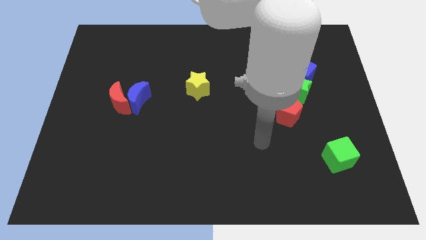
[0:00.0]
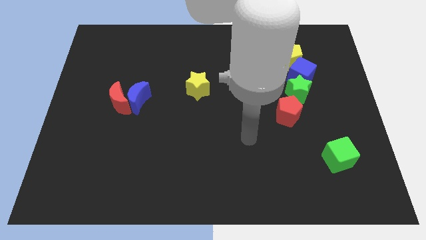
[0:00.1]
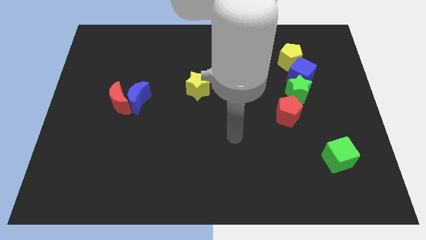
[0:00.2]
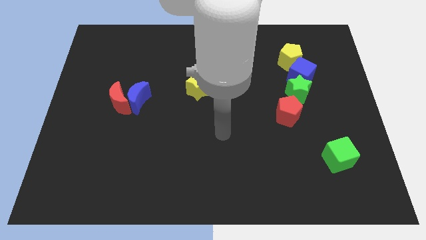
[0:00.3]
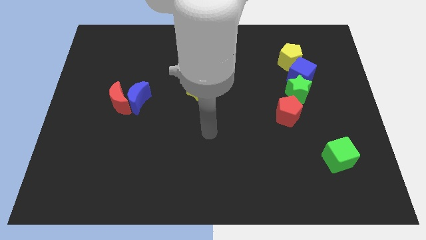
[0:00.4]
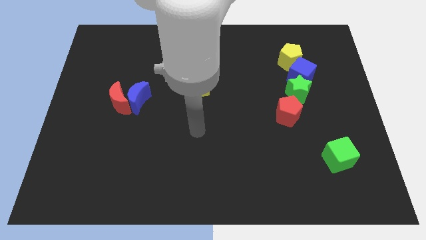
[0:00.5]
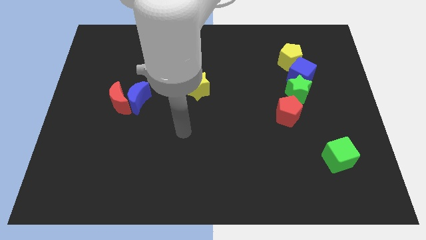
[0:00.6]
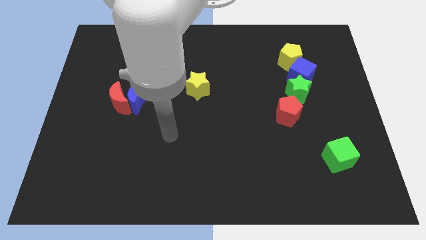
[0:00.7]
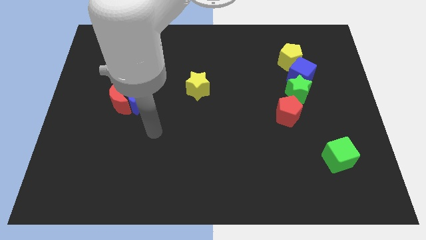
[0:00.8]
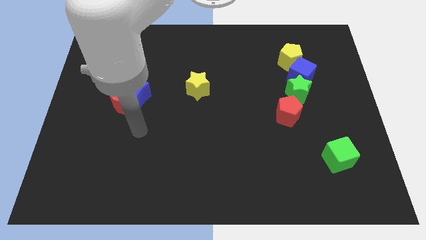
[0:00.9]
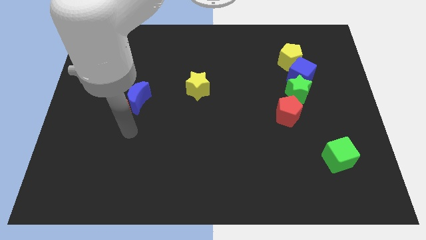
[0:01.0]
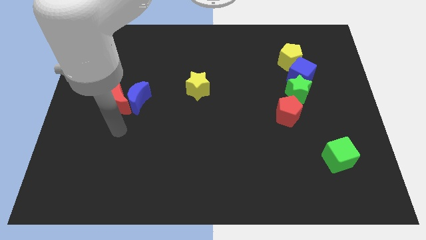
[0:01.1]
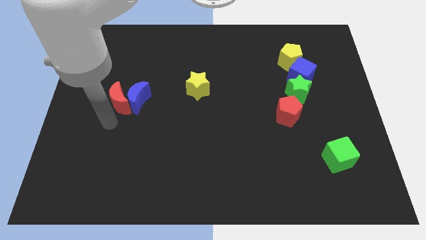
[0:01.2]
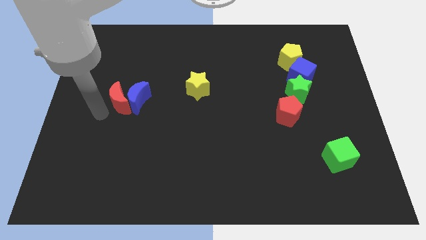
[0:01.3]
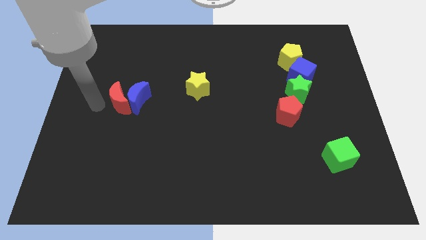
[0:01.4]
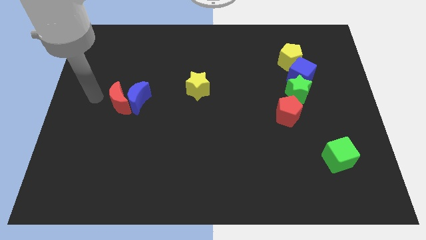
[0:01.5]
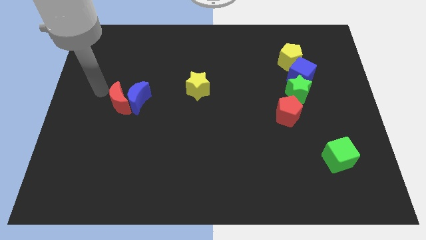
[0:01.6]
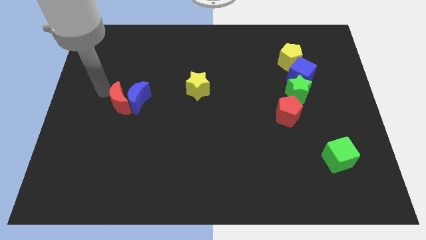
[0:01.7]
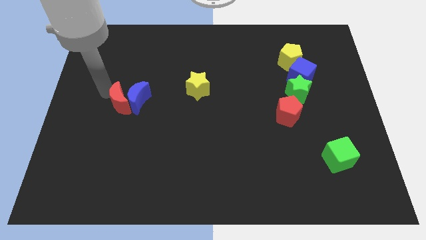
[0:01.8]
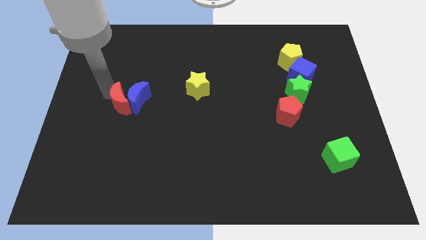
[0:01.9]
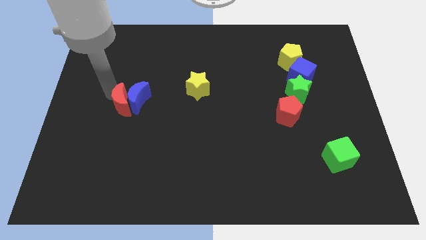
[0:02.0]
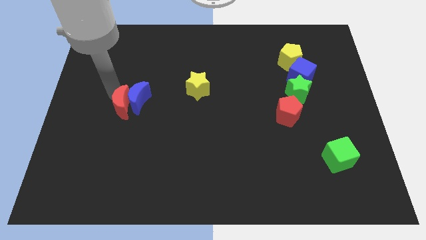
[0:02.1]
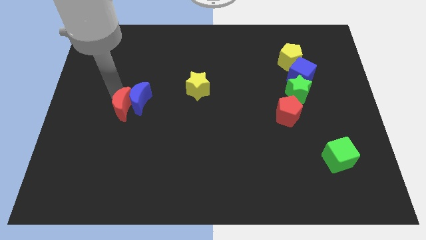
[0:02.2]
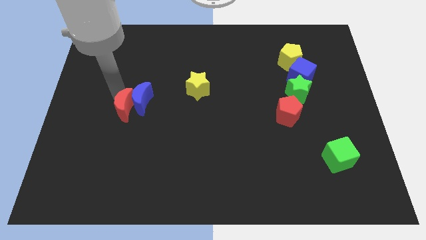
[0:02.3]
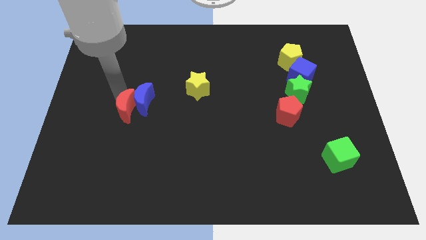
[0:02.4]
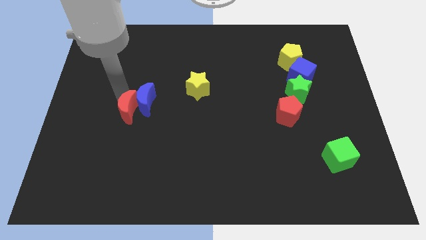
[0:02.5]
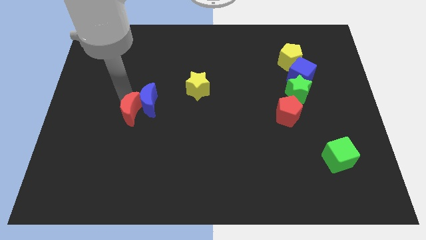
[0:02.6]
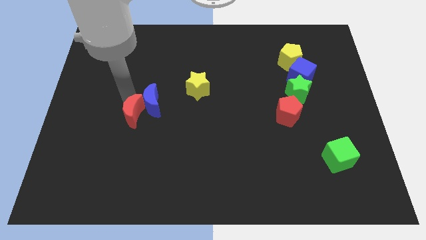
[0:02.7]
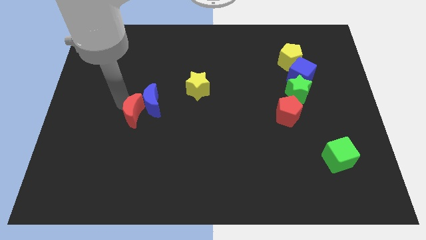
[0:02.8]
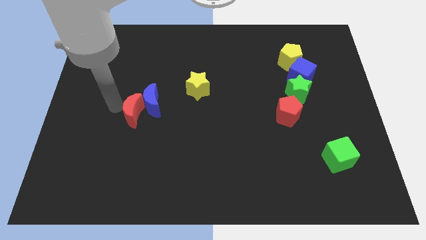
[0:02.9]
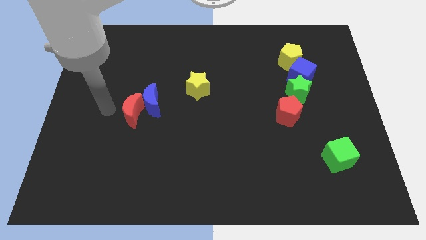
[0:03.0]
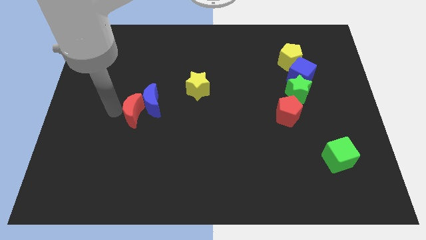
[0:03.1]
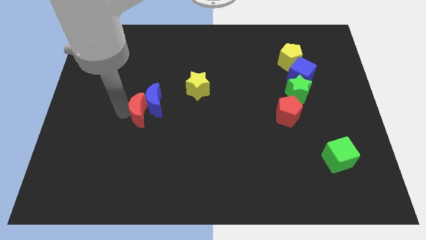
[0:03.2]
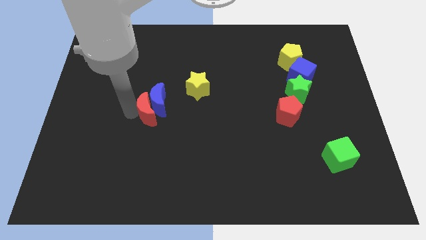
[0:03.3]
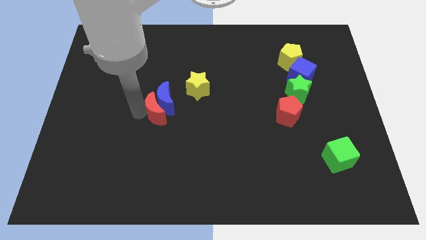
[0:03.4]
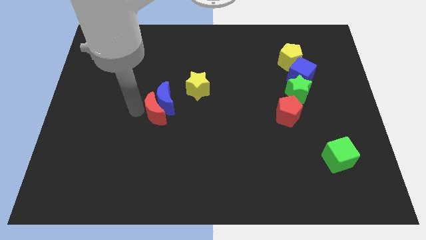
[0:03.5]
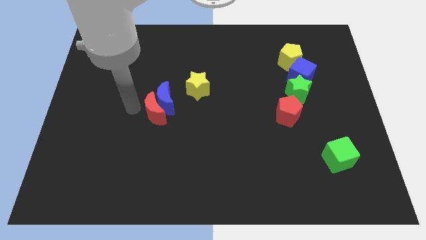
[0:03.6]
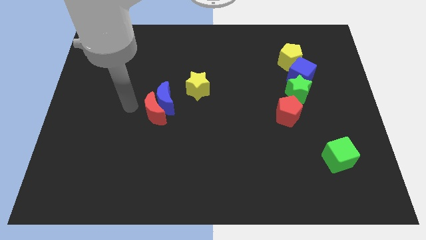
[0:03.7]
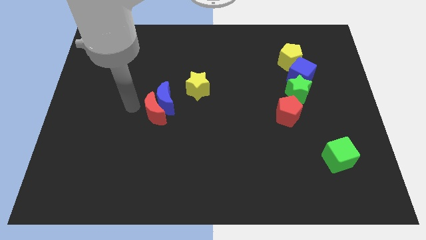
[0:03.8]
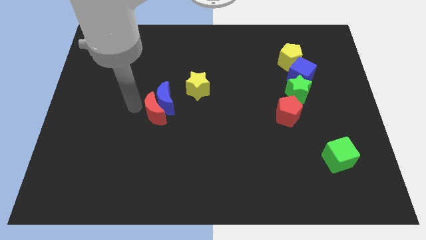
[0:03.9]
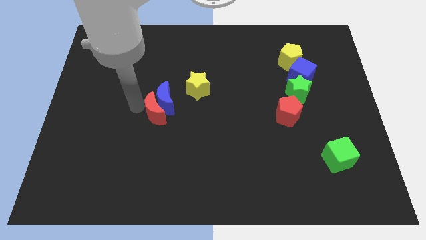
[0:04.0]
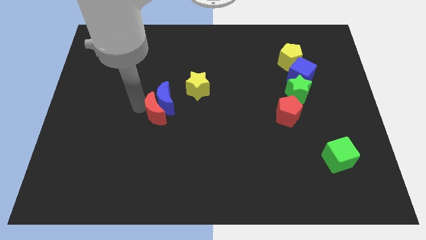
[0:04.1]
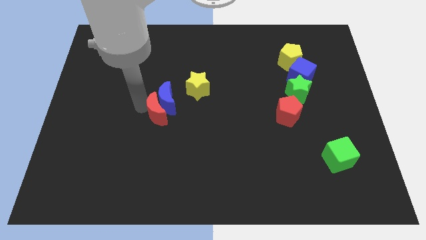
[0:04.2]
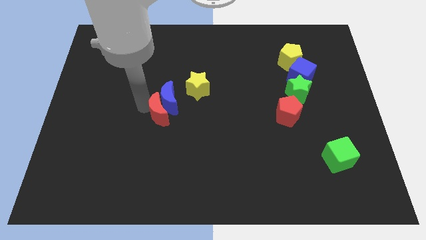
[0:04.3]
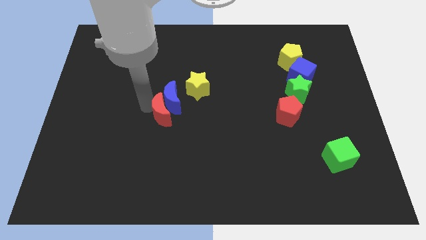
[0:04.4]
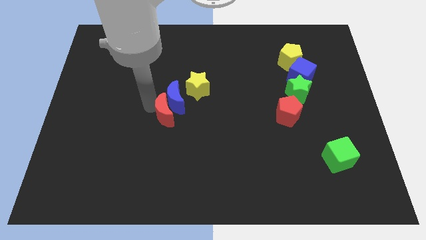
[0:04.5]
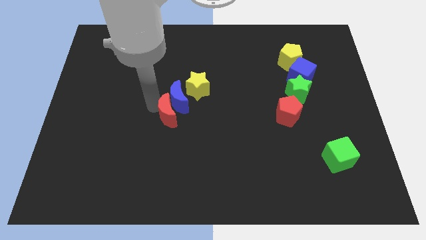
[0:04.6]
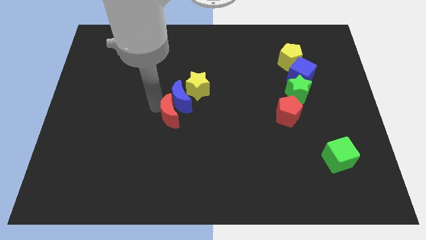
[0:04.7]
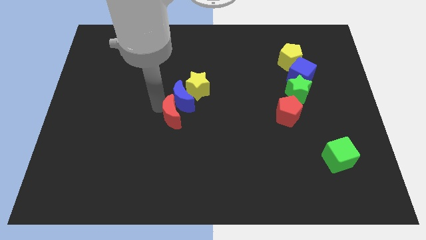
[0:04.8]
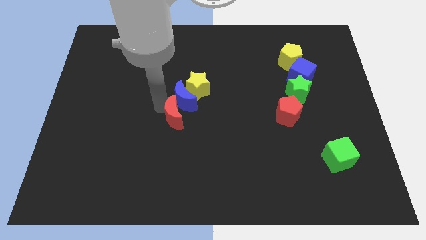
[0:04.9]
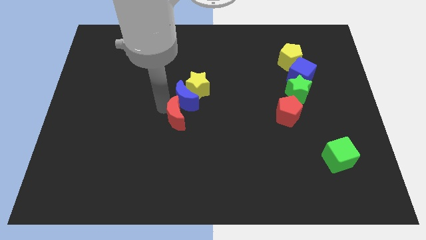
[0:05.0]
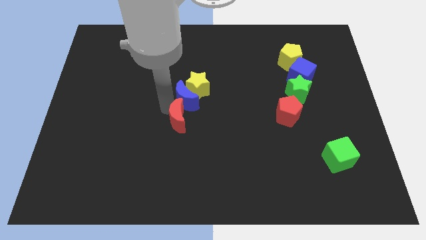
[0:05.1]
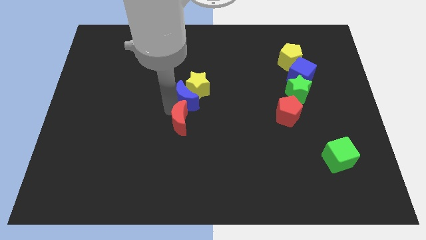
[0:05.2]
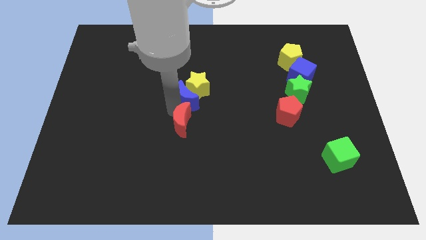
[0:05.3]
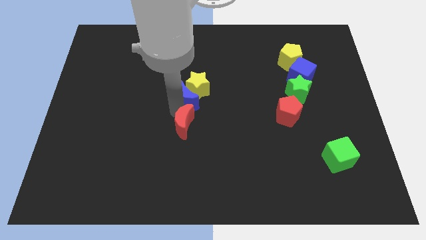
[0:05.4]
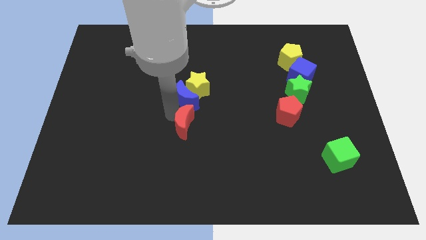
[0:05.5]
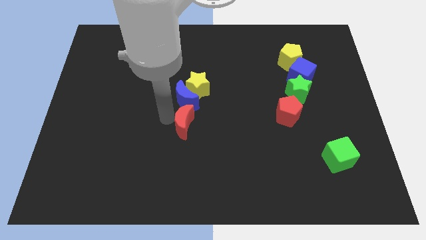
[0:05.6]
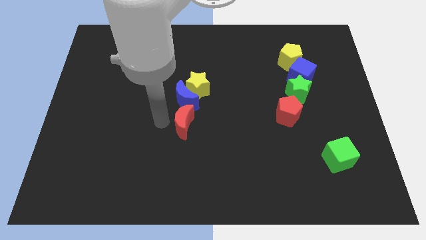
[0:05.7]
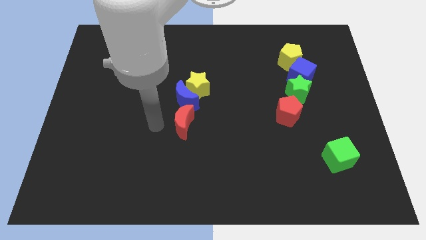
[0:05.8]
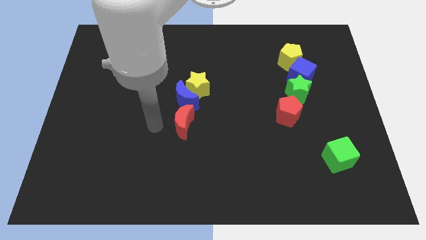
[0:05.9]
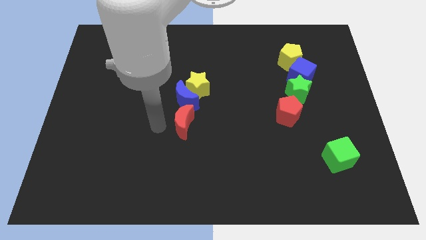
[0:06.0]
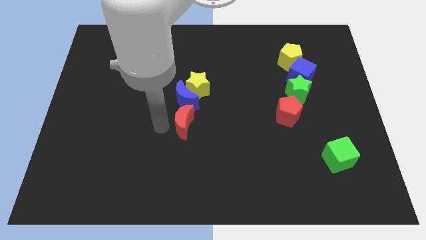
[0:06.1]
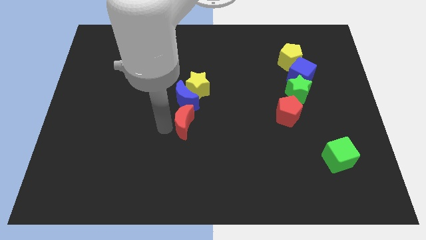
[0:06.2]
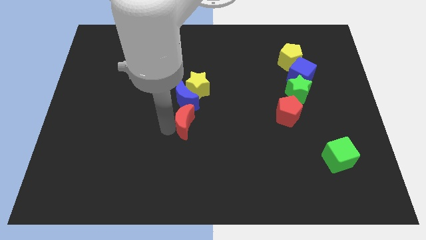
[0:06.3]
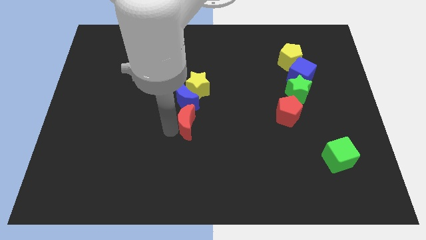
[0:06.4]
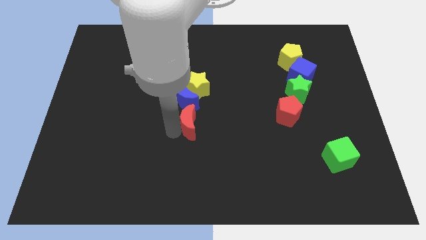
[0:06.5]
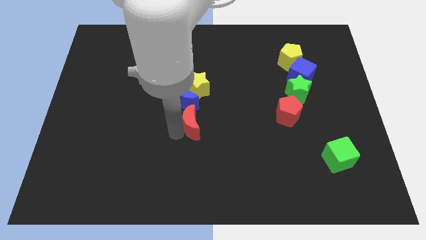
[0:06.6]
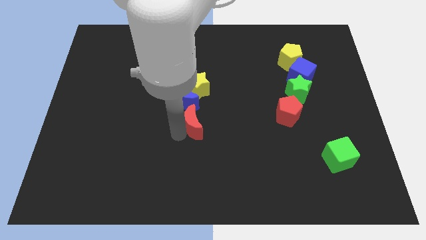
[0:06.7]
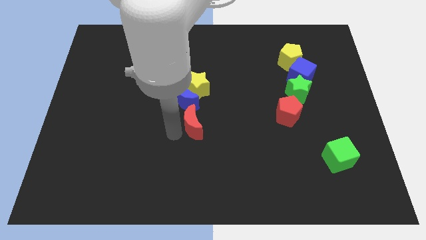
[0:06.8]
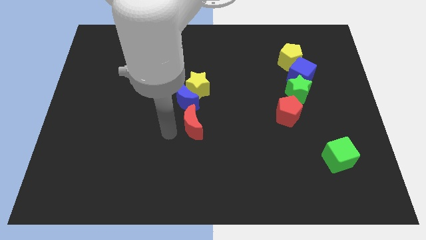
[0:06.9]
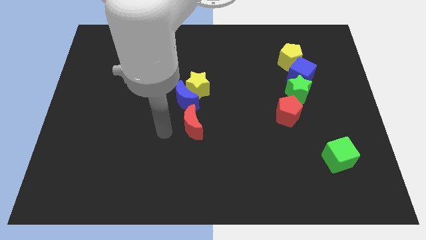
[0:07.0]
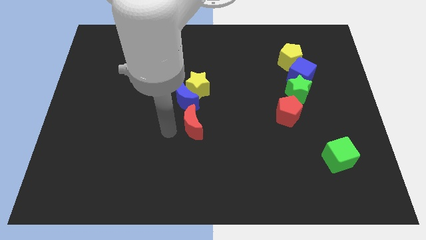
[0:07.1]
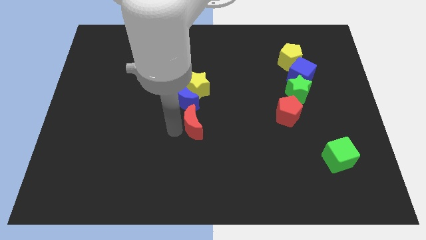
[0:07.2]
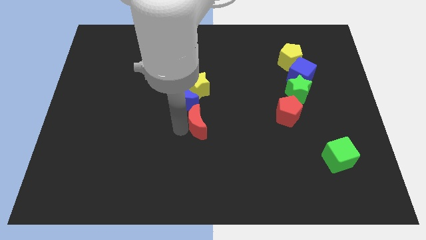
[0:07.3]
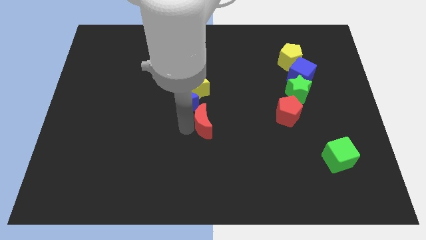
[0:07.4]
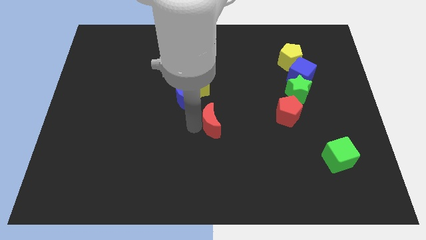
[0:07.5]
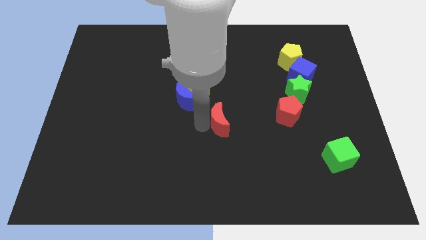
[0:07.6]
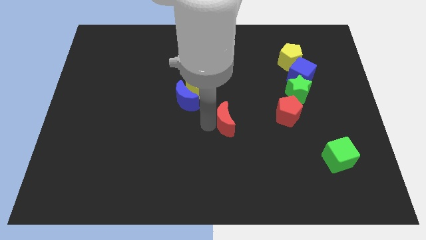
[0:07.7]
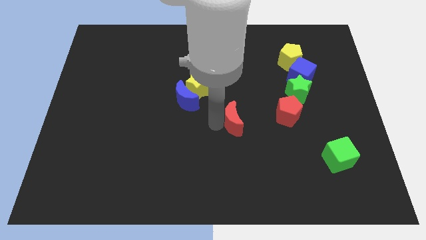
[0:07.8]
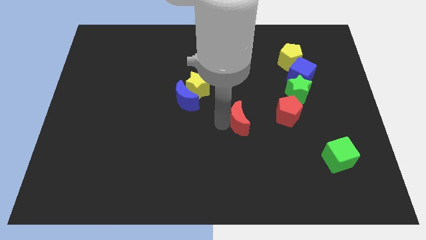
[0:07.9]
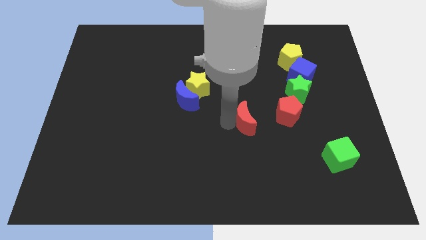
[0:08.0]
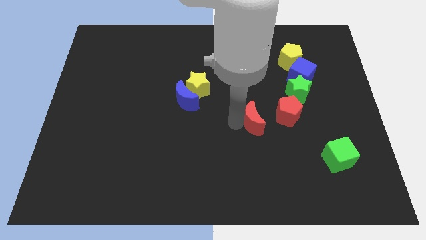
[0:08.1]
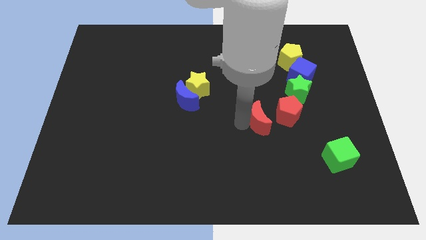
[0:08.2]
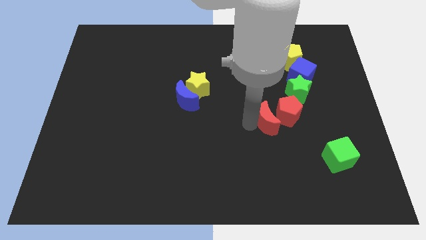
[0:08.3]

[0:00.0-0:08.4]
push the red moon close to the red pentagon

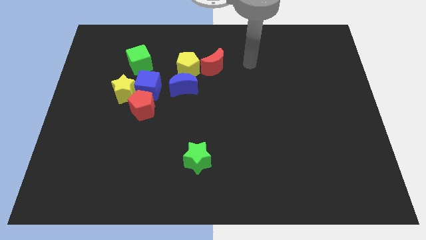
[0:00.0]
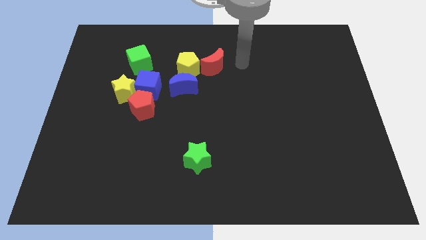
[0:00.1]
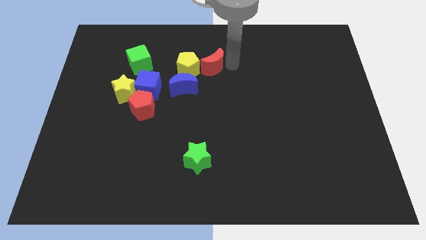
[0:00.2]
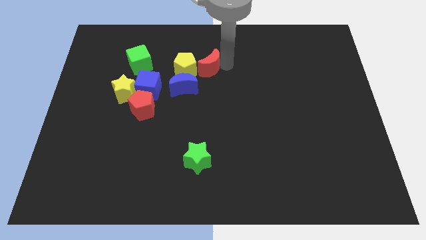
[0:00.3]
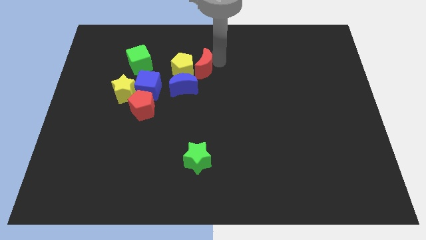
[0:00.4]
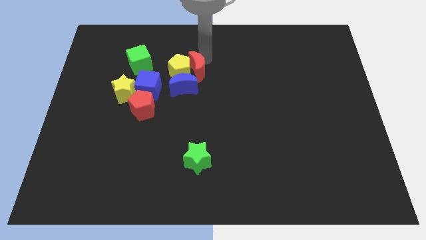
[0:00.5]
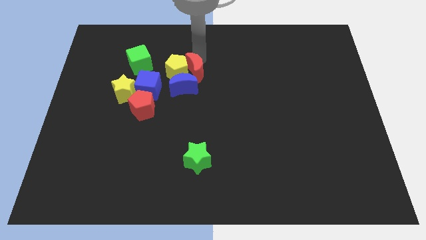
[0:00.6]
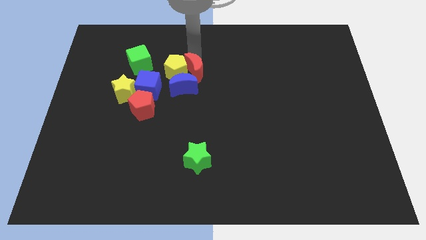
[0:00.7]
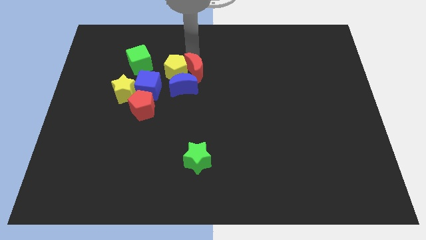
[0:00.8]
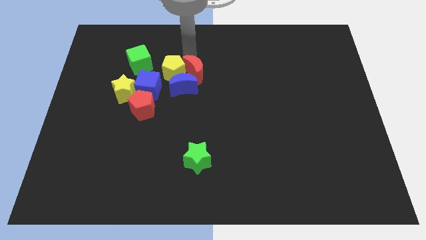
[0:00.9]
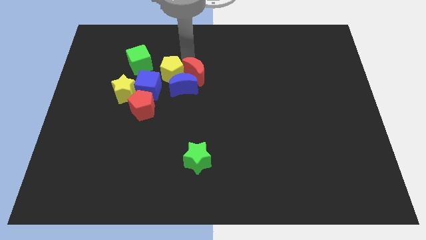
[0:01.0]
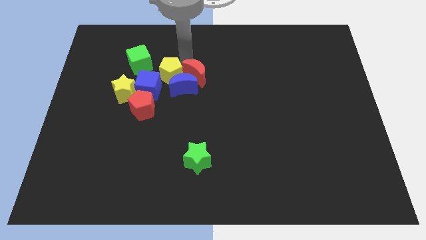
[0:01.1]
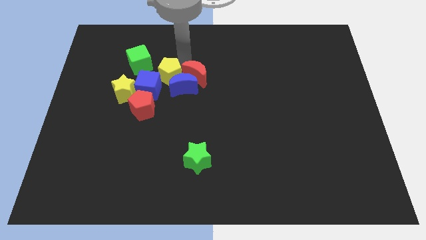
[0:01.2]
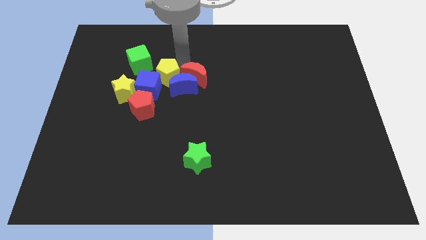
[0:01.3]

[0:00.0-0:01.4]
move the yellow pentagon close to the blue cube
